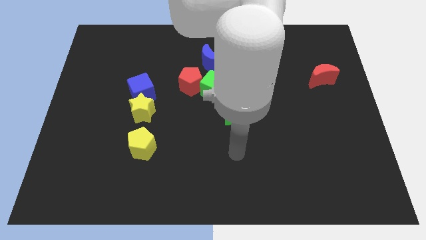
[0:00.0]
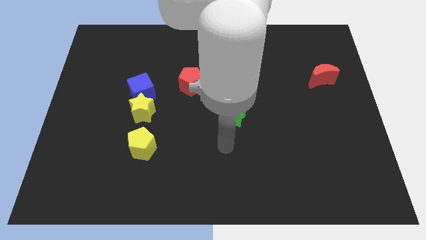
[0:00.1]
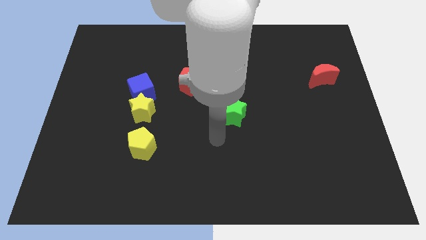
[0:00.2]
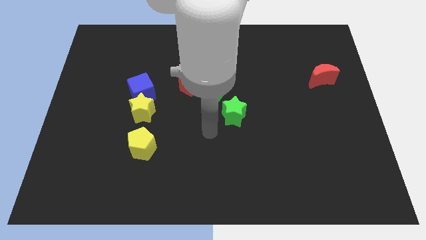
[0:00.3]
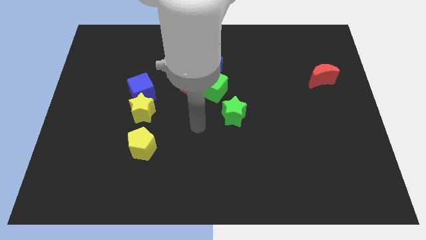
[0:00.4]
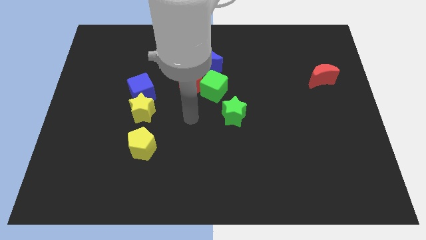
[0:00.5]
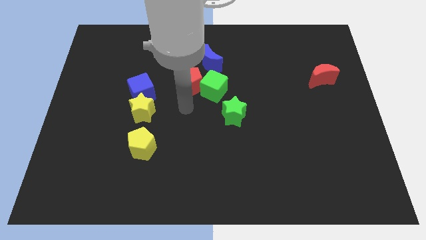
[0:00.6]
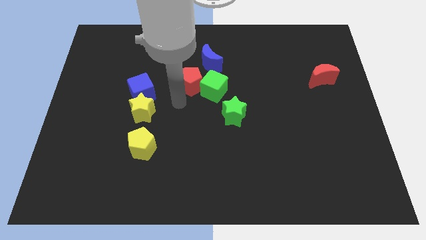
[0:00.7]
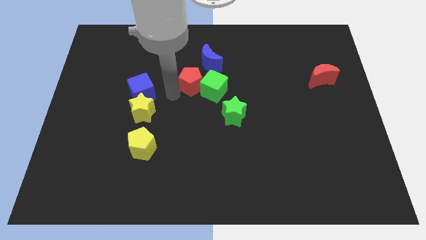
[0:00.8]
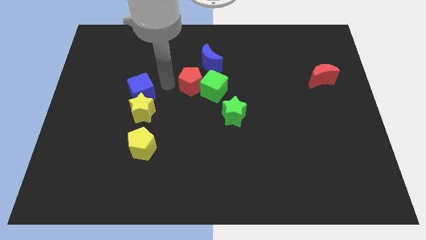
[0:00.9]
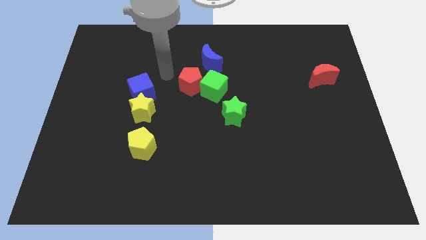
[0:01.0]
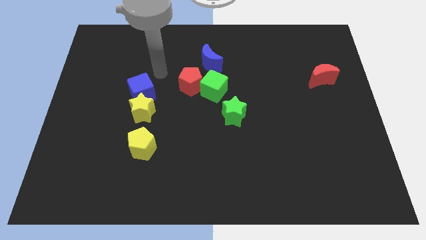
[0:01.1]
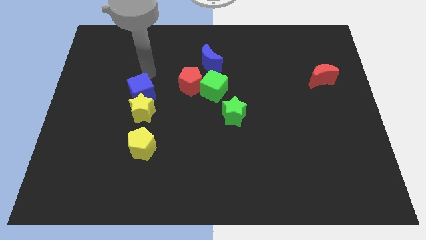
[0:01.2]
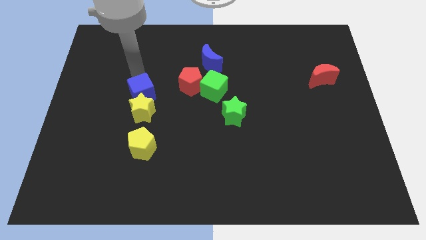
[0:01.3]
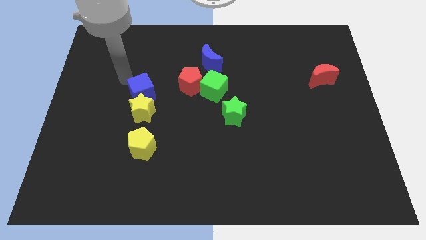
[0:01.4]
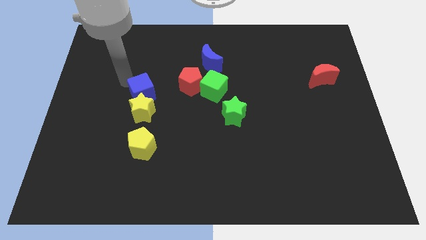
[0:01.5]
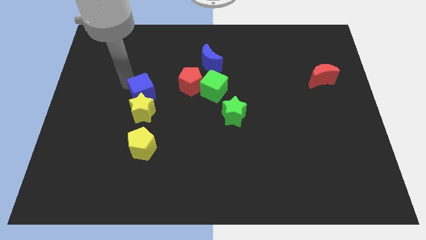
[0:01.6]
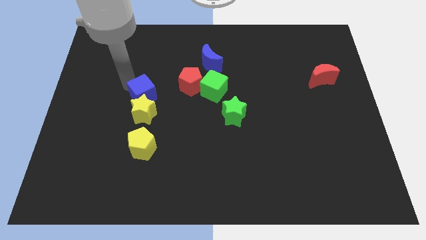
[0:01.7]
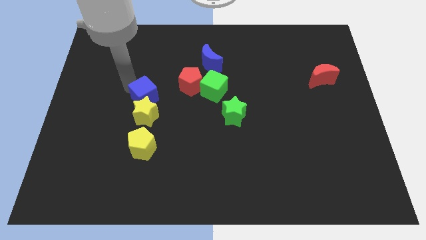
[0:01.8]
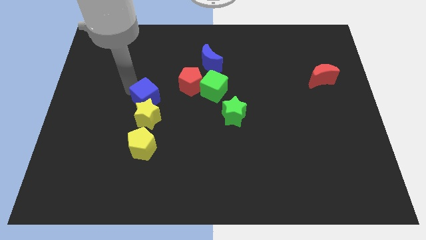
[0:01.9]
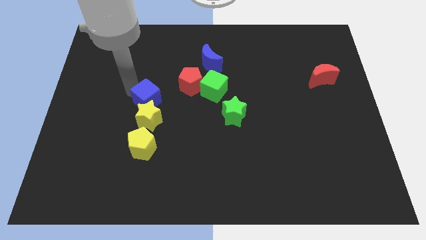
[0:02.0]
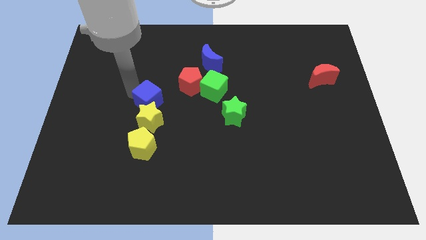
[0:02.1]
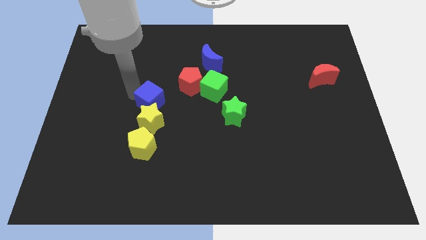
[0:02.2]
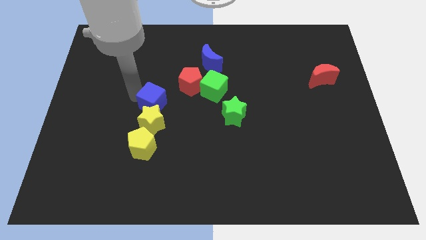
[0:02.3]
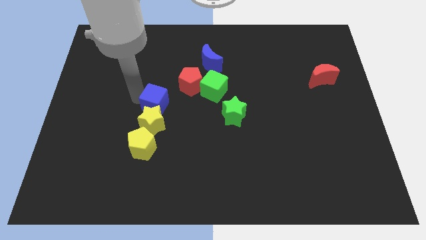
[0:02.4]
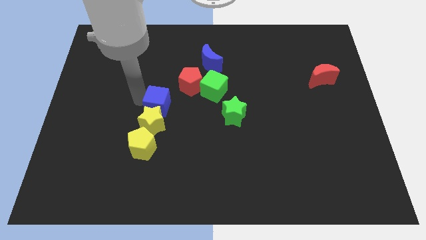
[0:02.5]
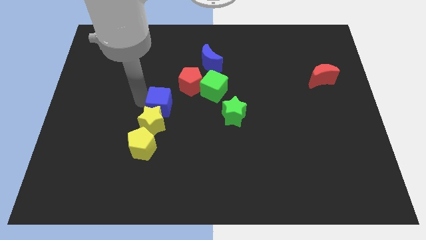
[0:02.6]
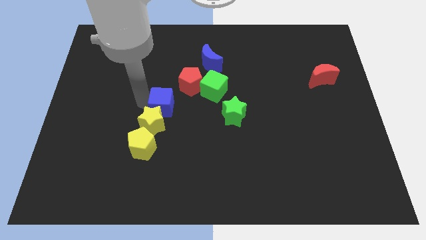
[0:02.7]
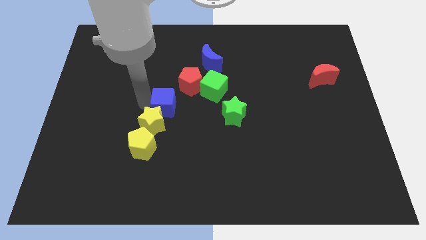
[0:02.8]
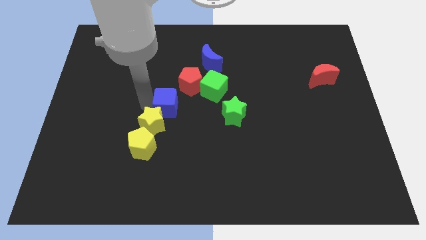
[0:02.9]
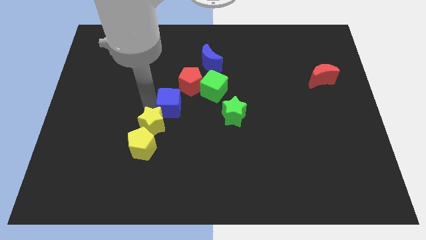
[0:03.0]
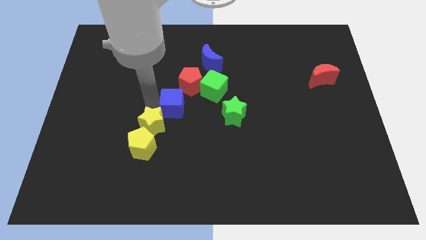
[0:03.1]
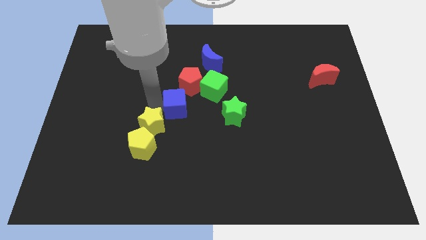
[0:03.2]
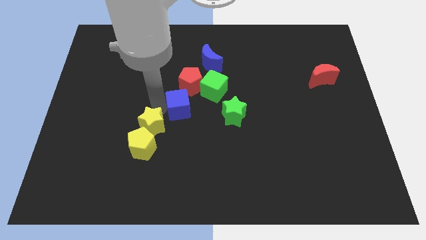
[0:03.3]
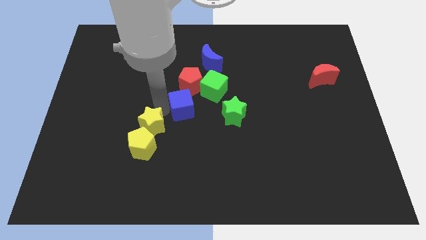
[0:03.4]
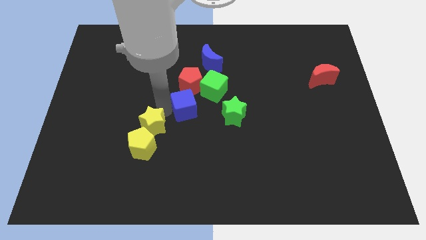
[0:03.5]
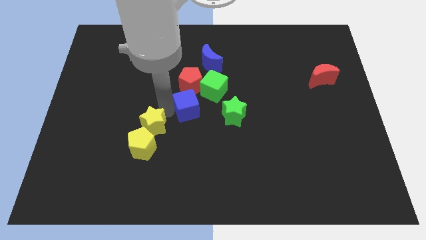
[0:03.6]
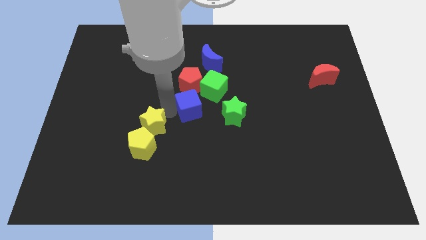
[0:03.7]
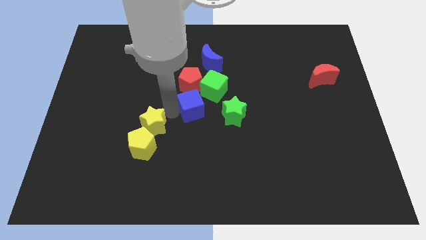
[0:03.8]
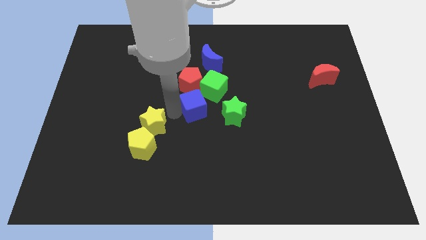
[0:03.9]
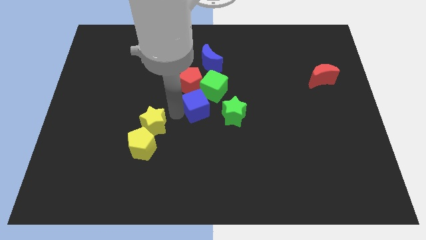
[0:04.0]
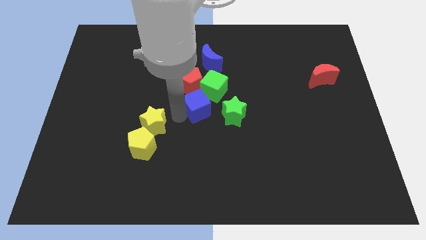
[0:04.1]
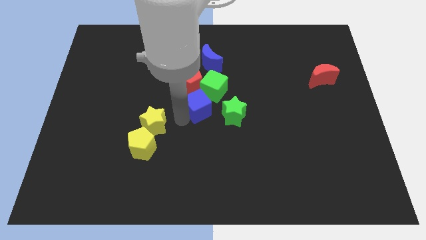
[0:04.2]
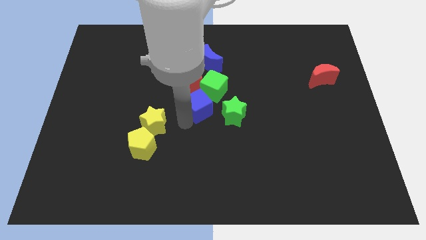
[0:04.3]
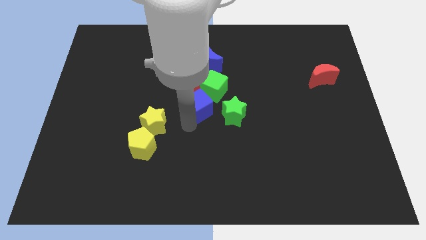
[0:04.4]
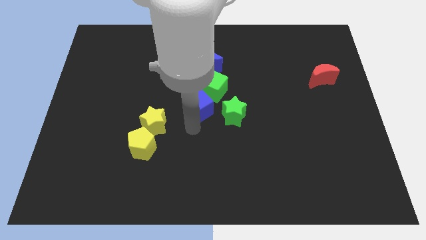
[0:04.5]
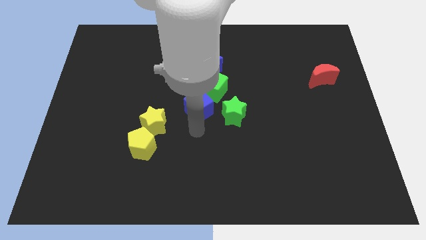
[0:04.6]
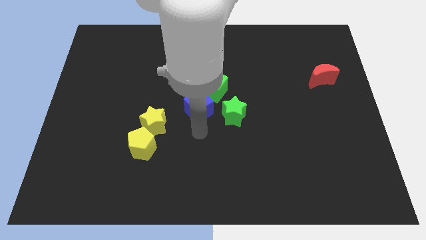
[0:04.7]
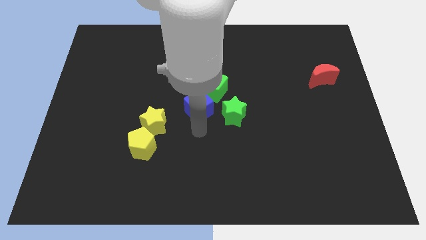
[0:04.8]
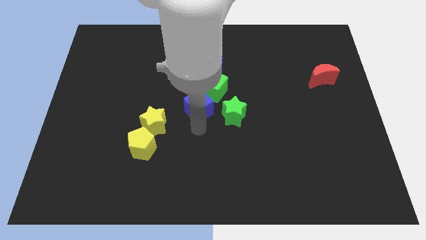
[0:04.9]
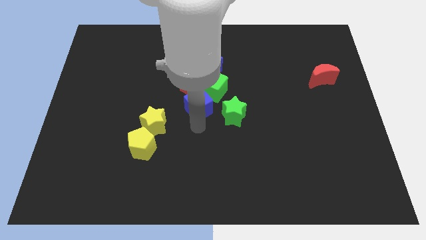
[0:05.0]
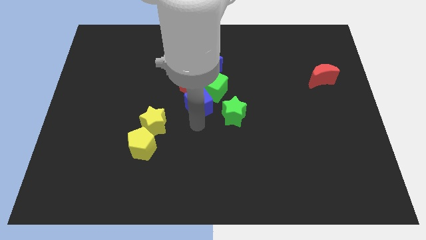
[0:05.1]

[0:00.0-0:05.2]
push the blue cube to the green cube

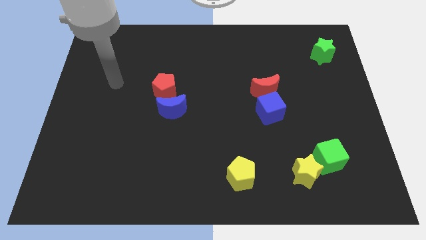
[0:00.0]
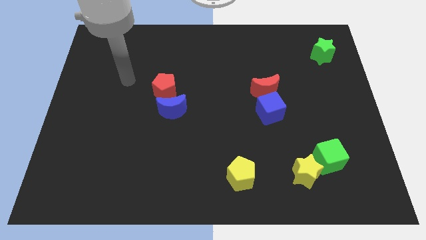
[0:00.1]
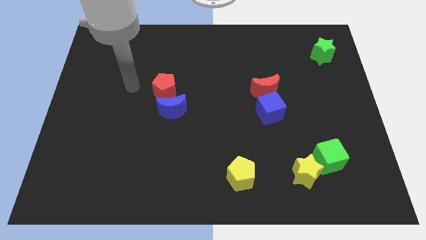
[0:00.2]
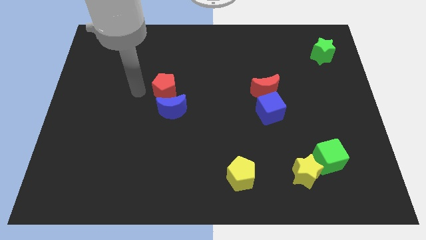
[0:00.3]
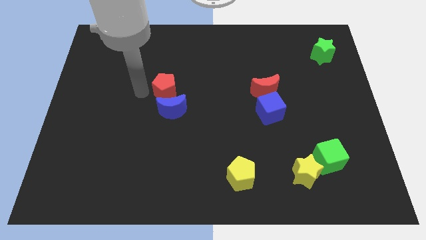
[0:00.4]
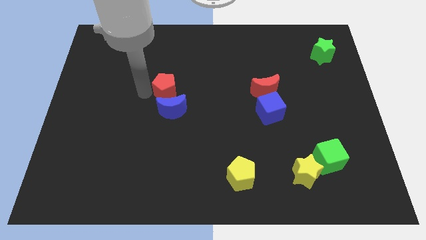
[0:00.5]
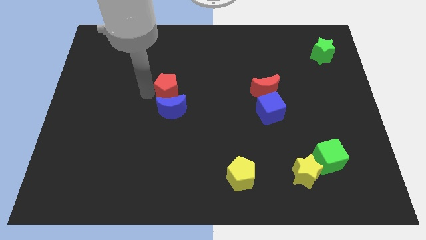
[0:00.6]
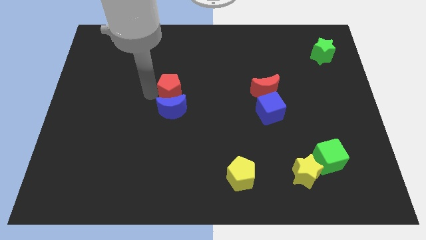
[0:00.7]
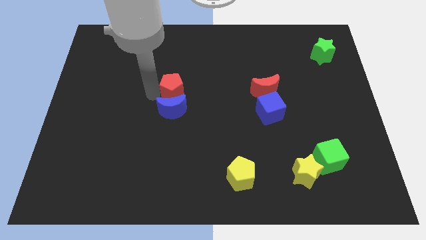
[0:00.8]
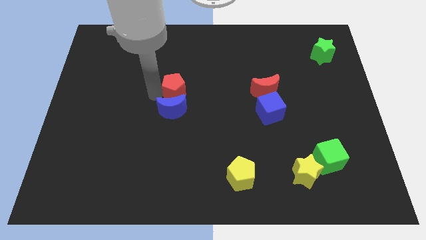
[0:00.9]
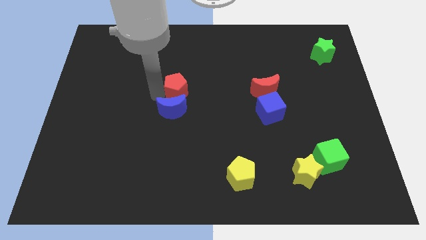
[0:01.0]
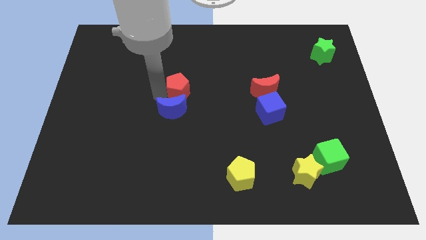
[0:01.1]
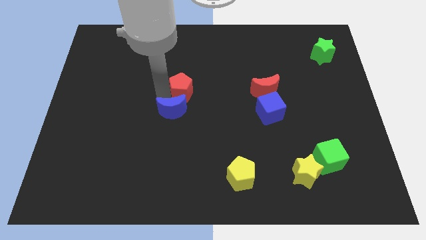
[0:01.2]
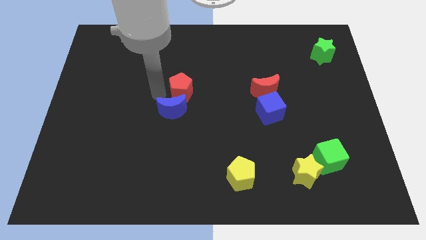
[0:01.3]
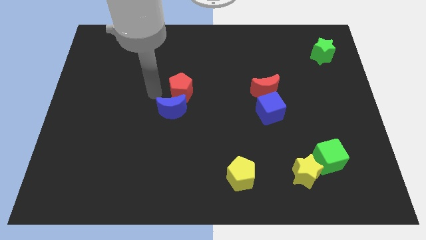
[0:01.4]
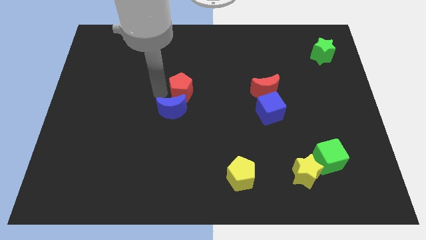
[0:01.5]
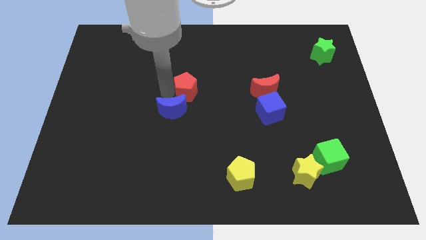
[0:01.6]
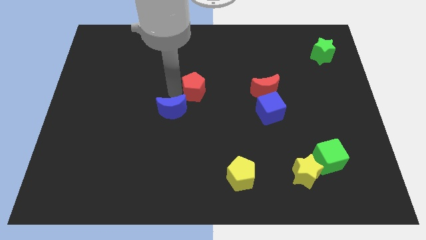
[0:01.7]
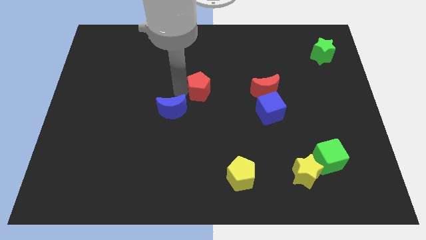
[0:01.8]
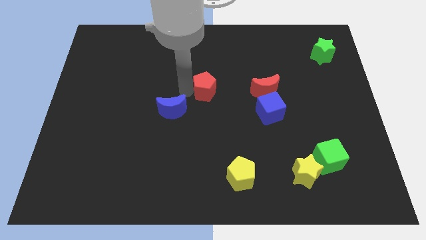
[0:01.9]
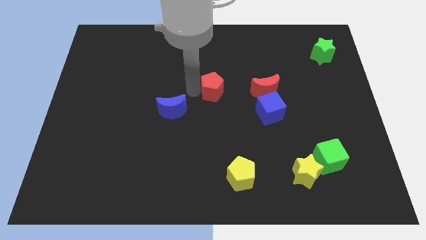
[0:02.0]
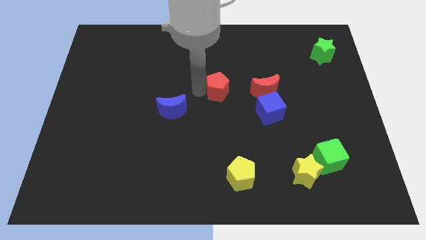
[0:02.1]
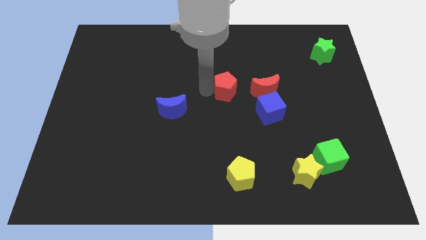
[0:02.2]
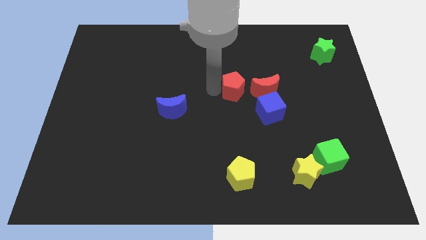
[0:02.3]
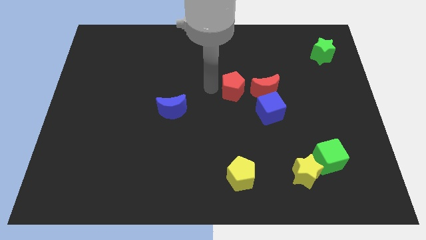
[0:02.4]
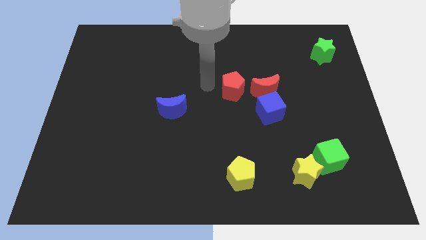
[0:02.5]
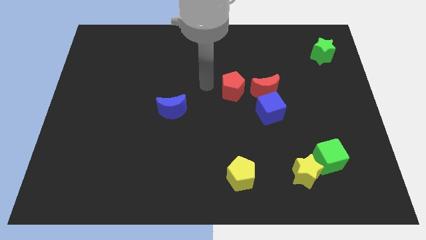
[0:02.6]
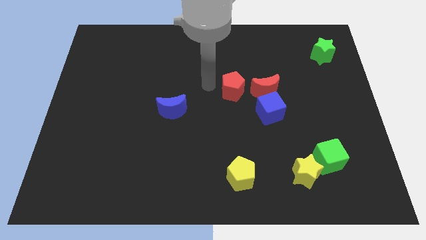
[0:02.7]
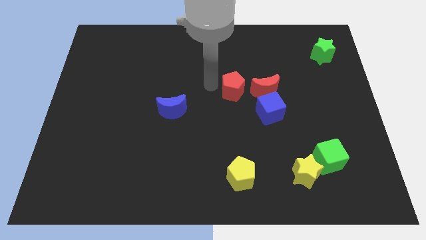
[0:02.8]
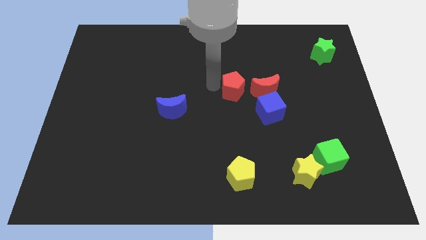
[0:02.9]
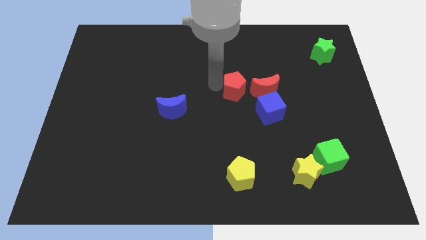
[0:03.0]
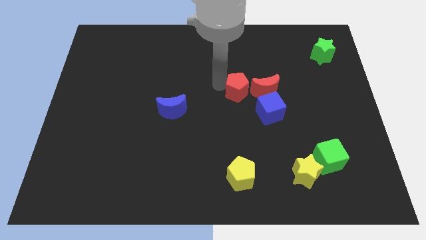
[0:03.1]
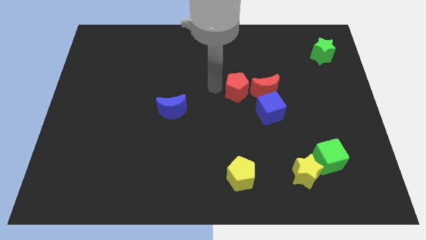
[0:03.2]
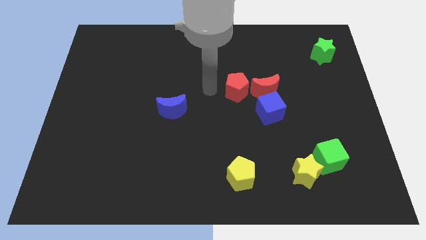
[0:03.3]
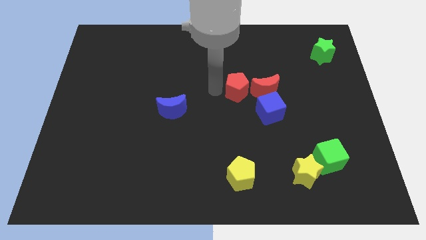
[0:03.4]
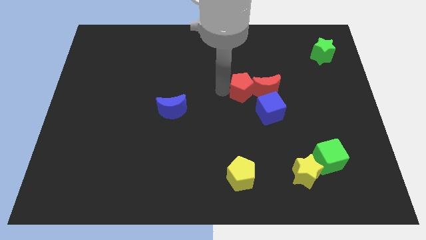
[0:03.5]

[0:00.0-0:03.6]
slide the red pentagon to the red moon
